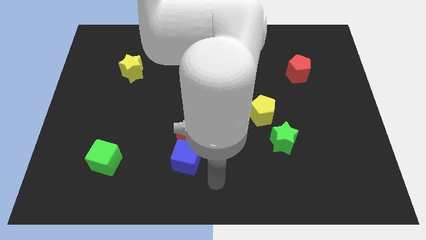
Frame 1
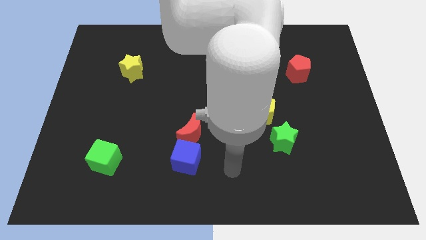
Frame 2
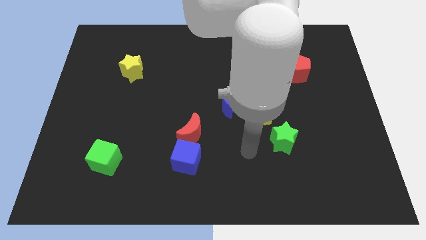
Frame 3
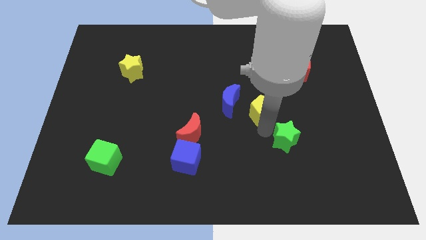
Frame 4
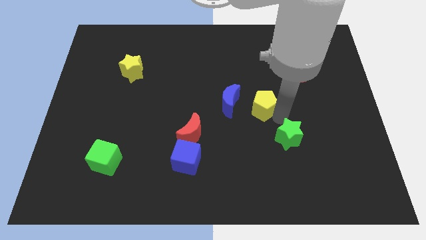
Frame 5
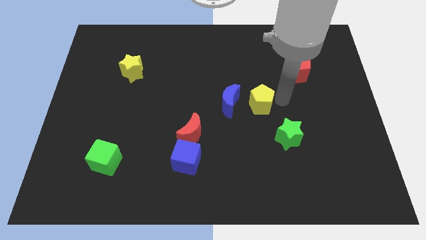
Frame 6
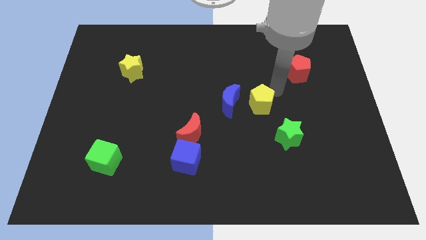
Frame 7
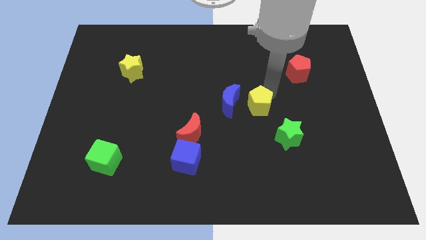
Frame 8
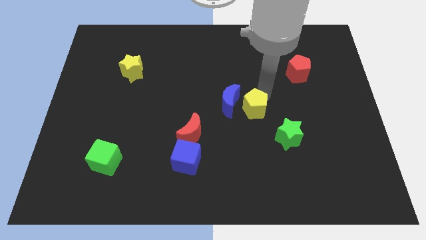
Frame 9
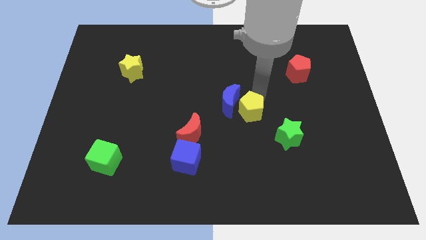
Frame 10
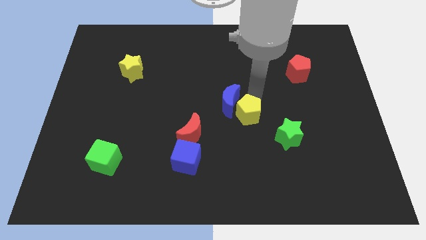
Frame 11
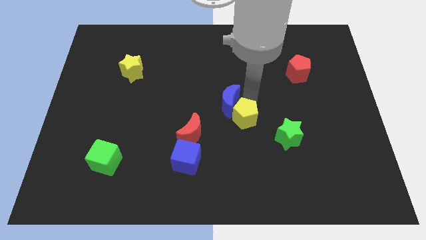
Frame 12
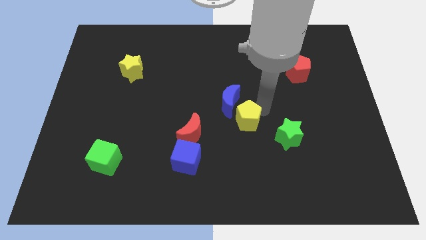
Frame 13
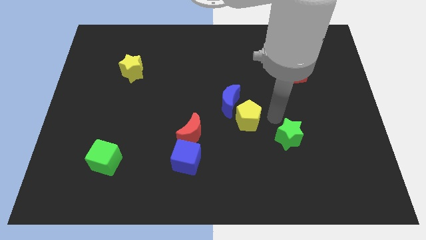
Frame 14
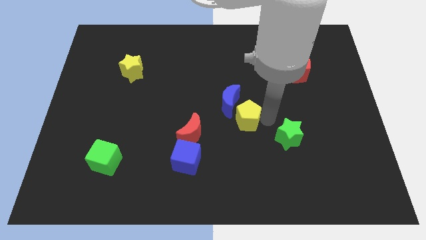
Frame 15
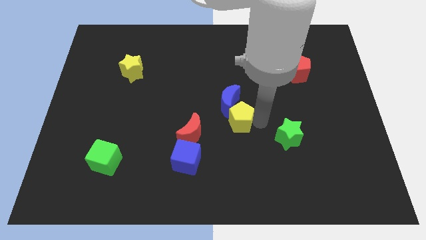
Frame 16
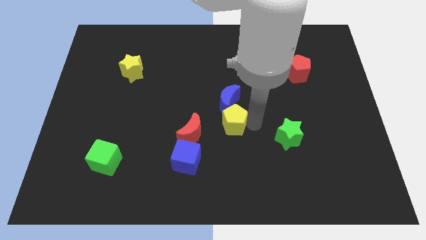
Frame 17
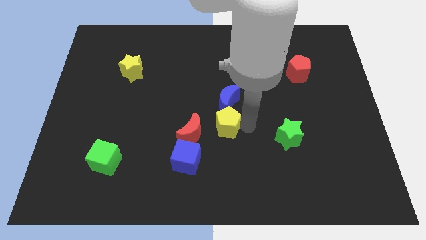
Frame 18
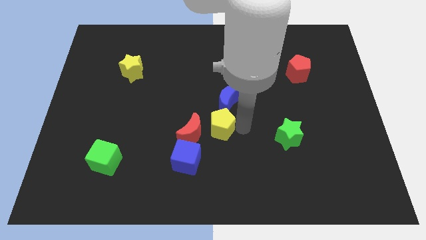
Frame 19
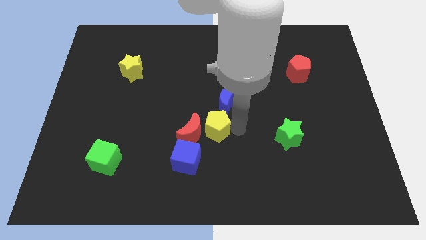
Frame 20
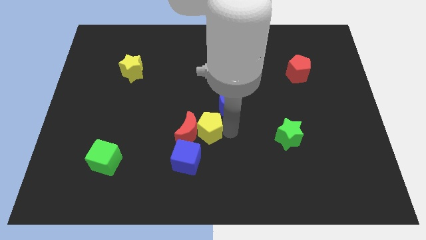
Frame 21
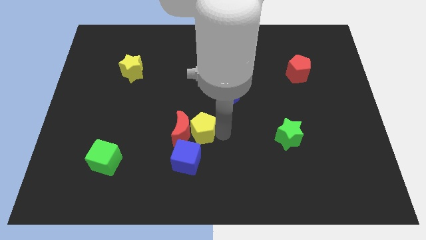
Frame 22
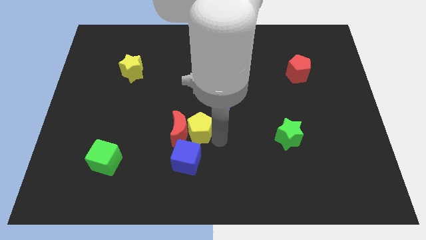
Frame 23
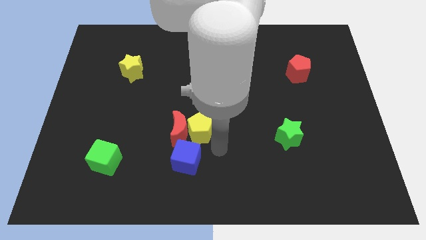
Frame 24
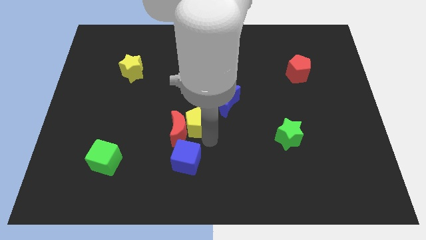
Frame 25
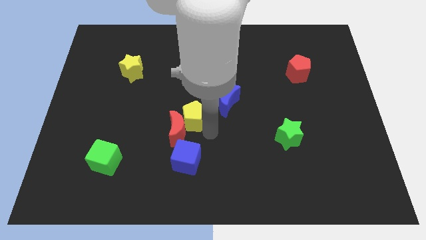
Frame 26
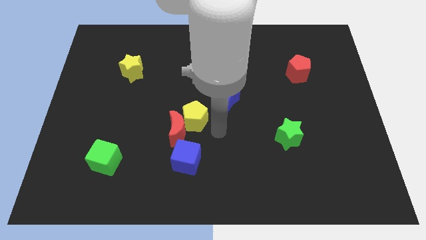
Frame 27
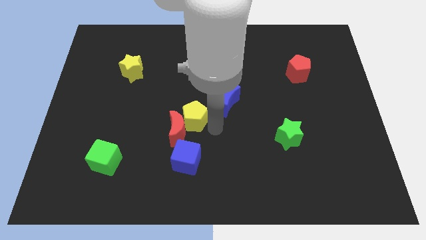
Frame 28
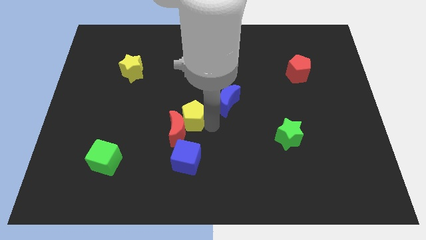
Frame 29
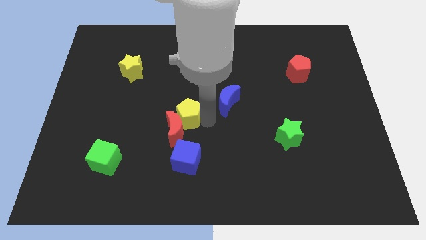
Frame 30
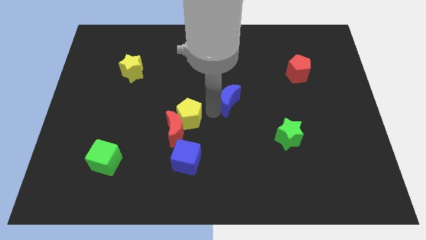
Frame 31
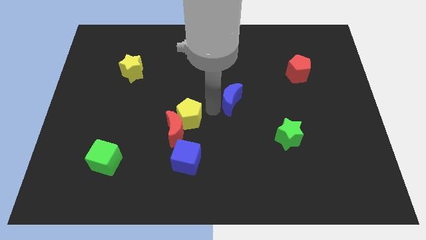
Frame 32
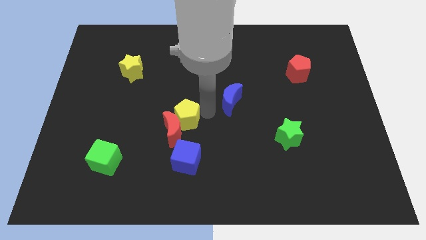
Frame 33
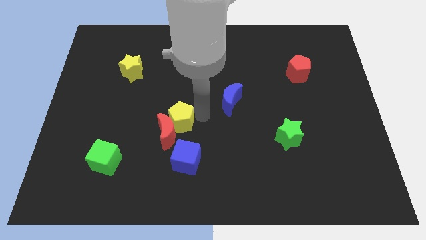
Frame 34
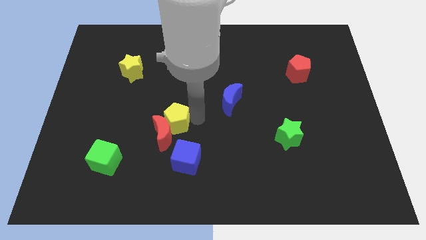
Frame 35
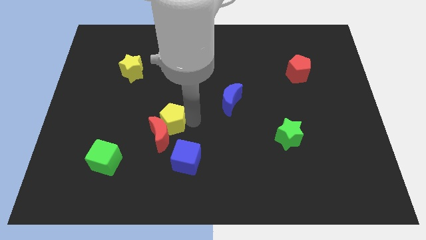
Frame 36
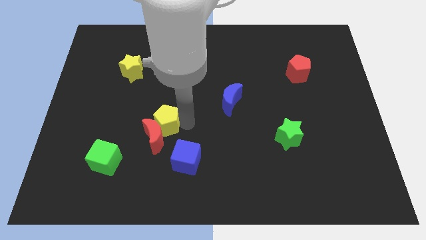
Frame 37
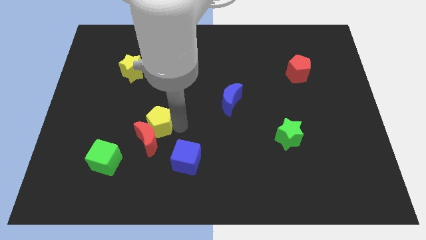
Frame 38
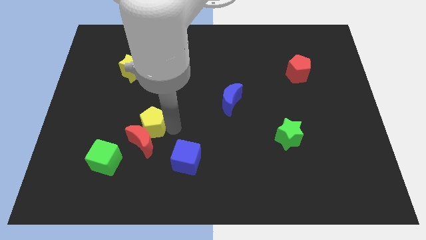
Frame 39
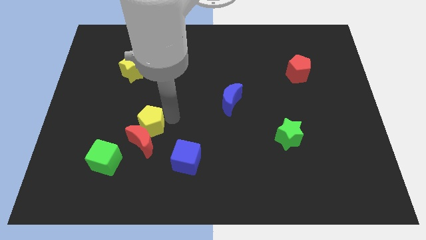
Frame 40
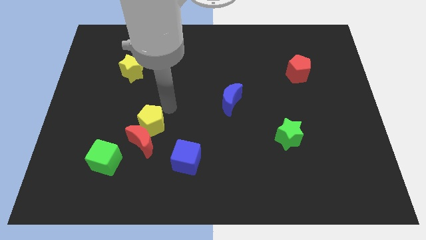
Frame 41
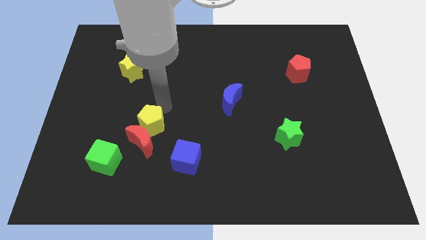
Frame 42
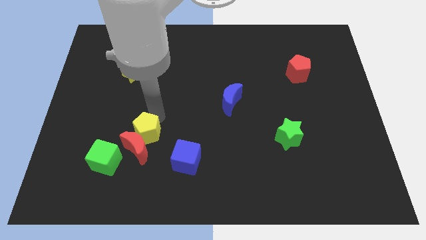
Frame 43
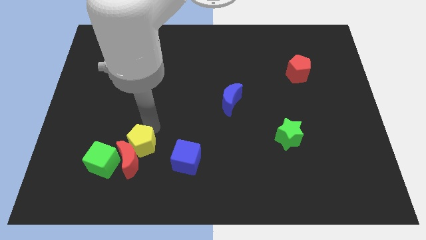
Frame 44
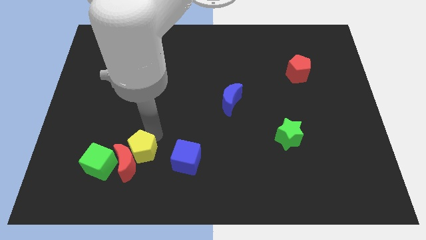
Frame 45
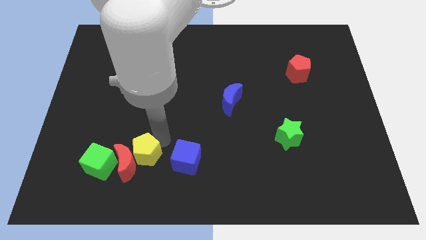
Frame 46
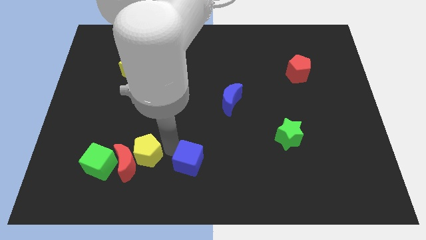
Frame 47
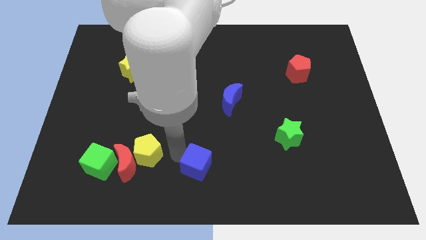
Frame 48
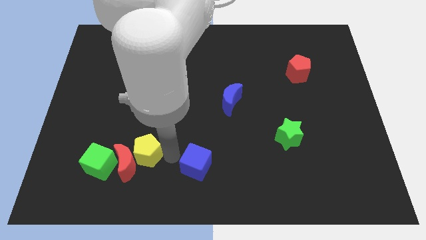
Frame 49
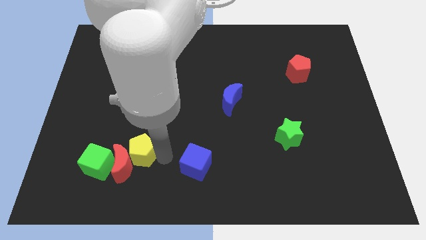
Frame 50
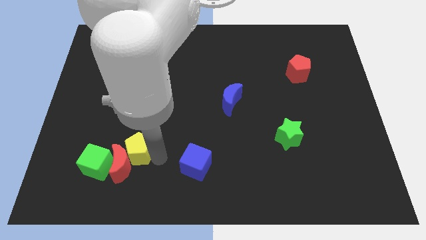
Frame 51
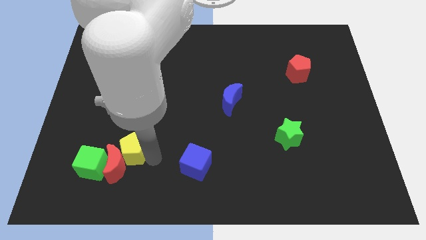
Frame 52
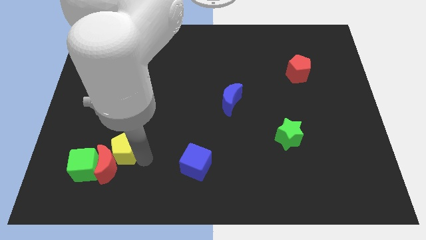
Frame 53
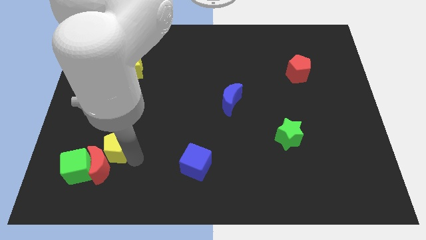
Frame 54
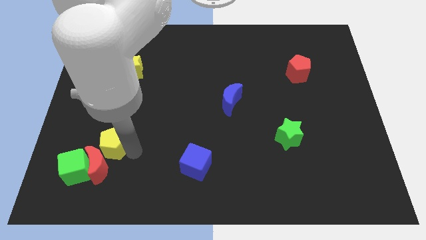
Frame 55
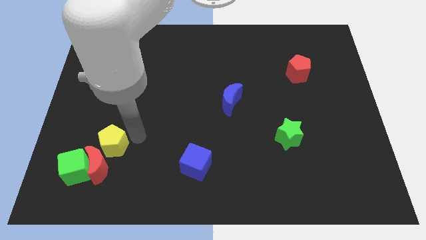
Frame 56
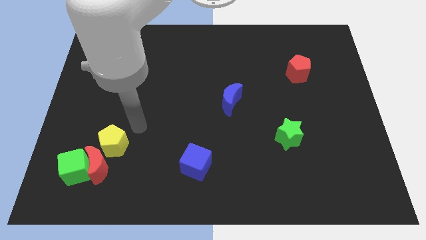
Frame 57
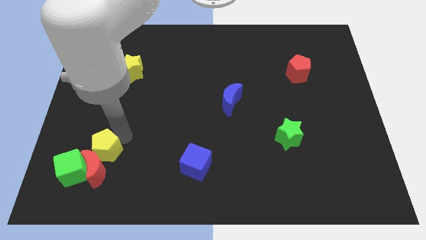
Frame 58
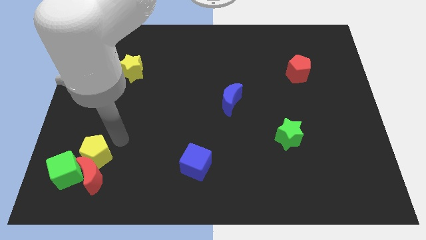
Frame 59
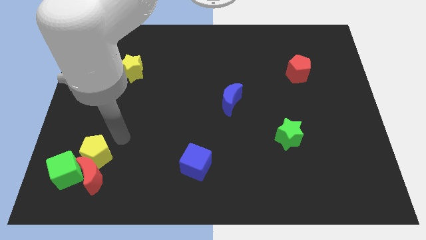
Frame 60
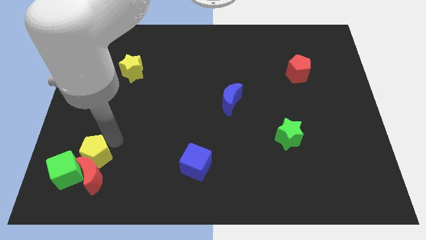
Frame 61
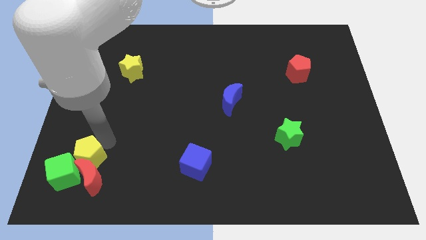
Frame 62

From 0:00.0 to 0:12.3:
move the yellow pentagon close to the green cube

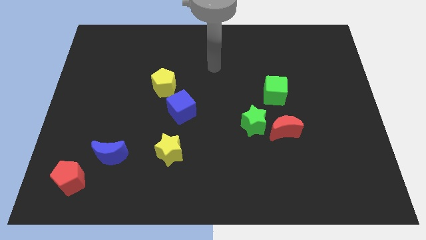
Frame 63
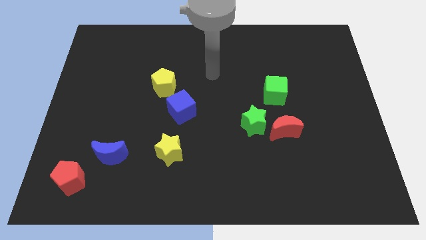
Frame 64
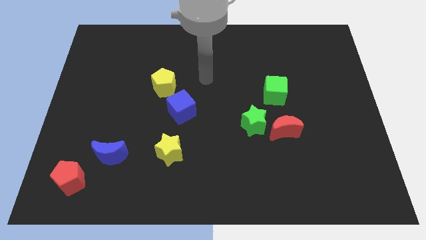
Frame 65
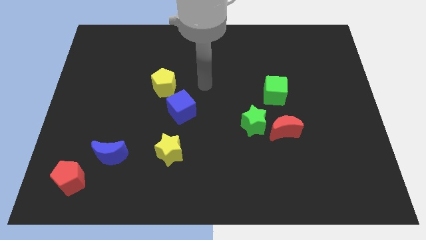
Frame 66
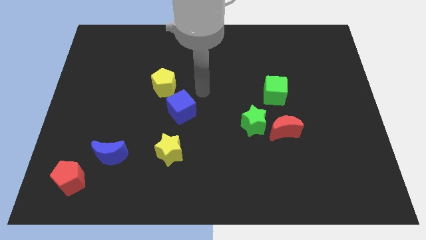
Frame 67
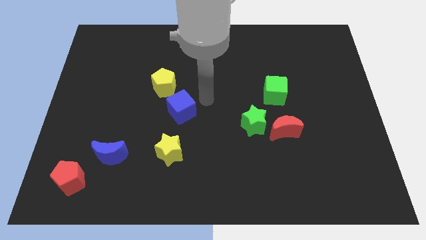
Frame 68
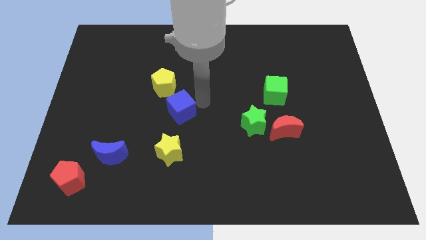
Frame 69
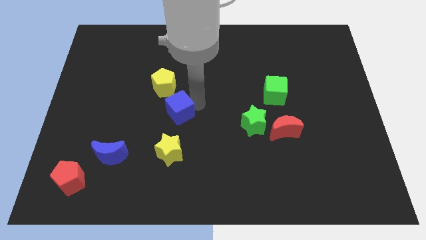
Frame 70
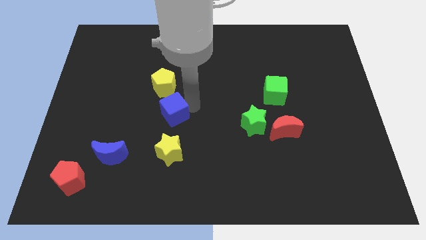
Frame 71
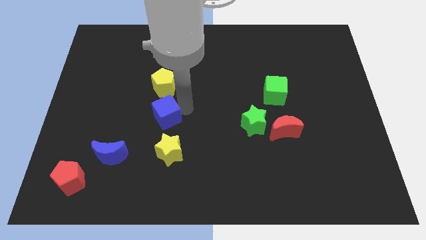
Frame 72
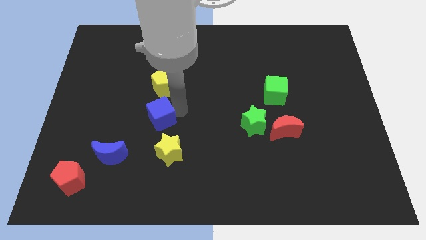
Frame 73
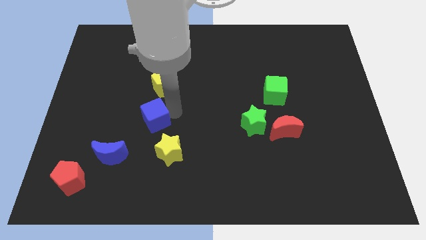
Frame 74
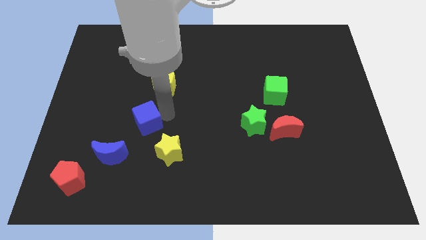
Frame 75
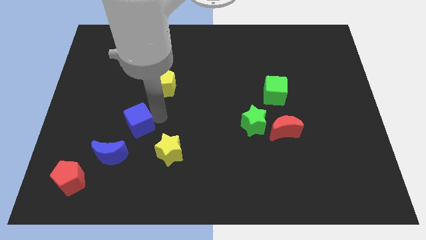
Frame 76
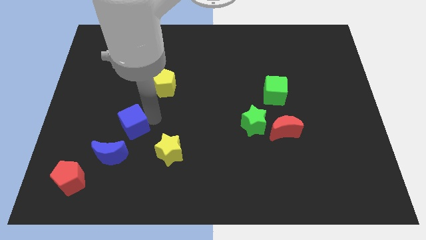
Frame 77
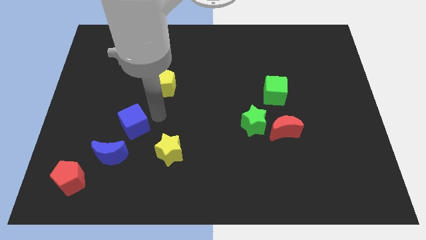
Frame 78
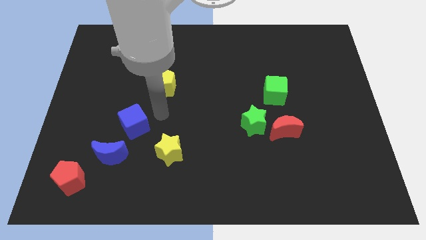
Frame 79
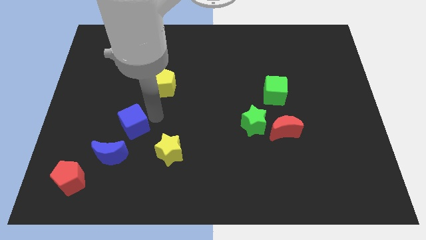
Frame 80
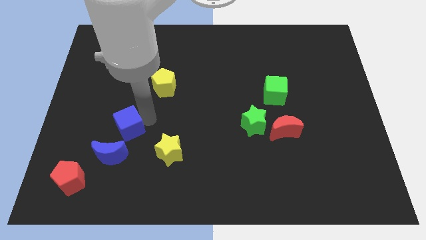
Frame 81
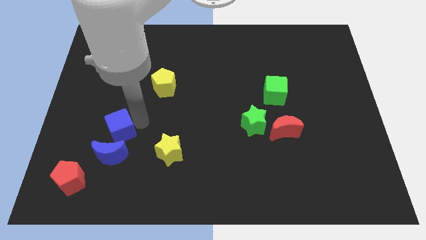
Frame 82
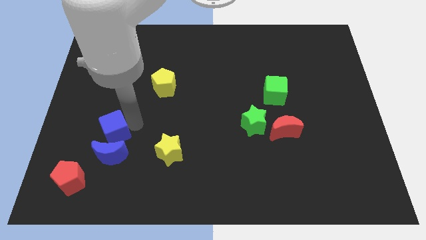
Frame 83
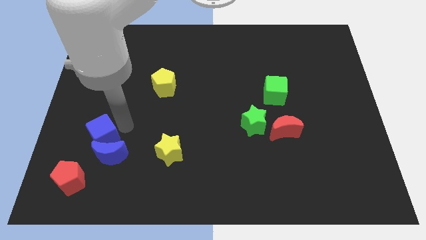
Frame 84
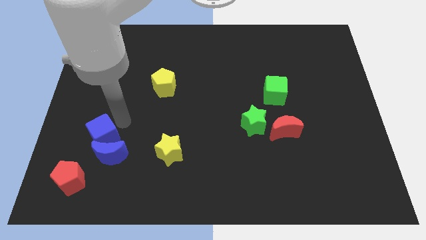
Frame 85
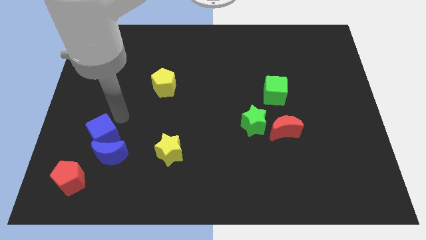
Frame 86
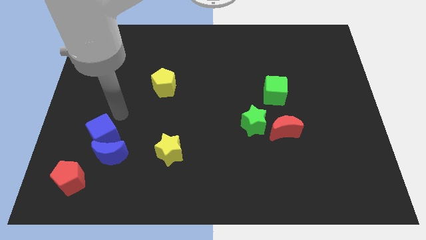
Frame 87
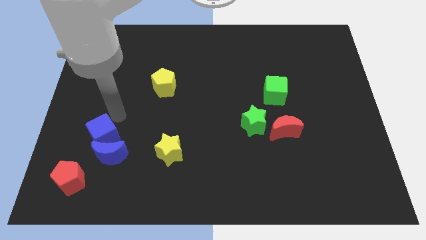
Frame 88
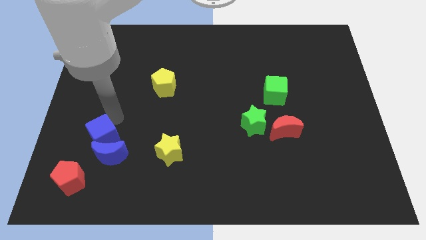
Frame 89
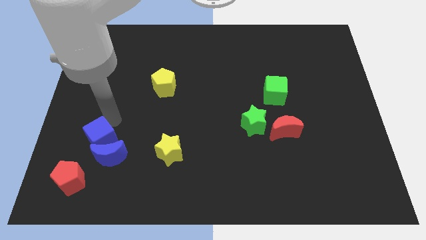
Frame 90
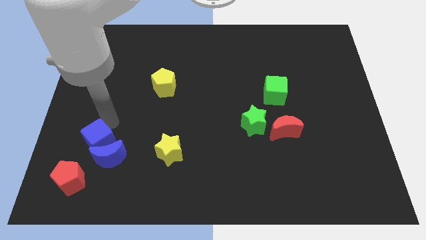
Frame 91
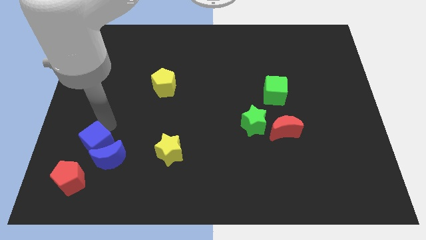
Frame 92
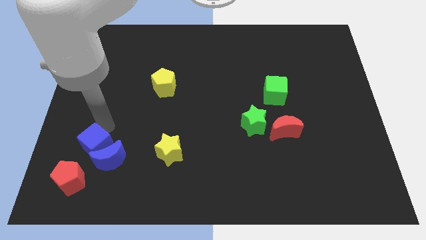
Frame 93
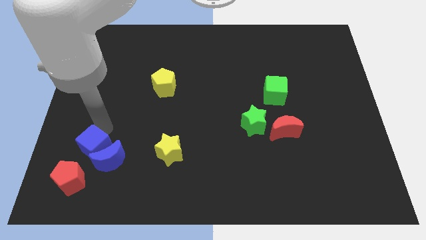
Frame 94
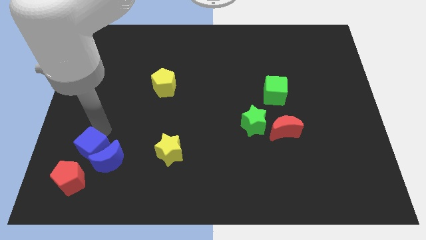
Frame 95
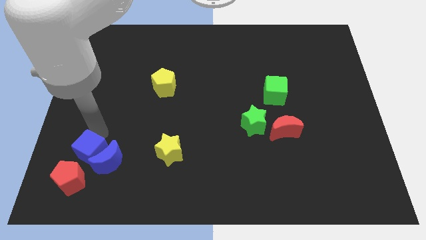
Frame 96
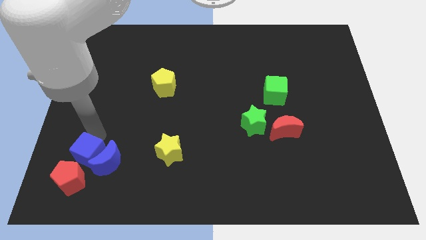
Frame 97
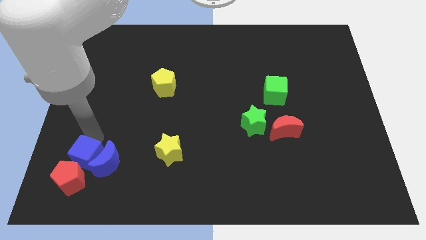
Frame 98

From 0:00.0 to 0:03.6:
put the blue cube next to the red pentagon
